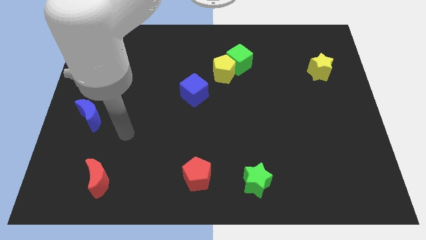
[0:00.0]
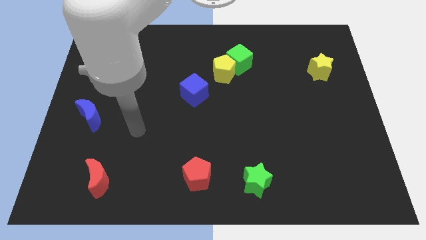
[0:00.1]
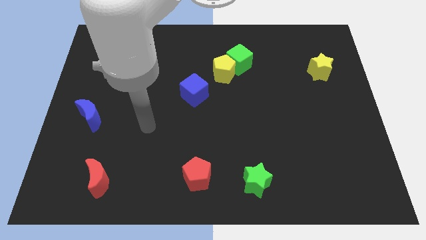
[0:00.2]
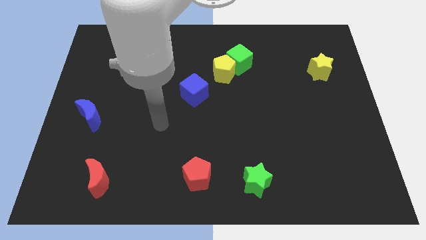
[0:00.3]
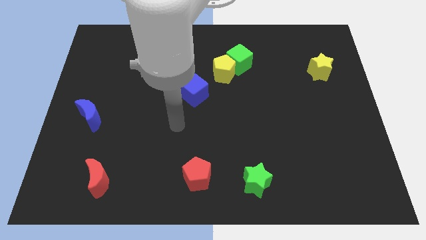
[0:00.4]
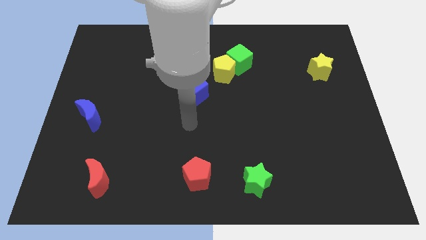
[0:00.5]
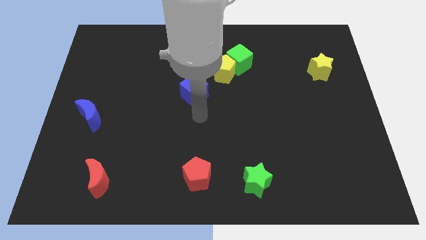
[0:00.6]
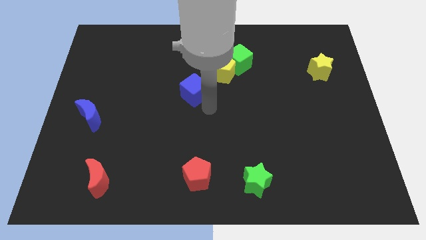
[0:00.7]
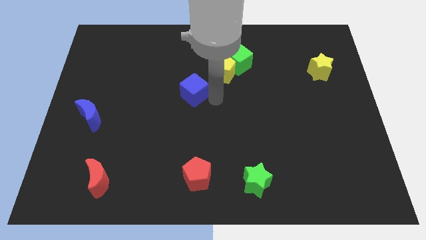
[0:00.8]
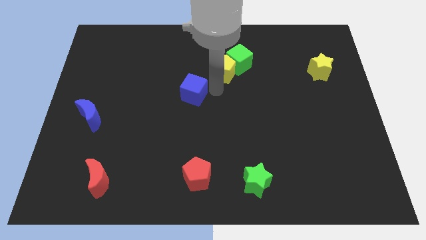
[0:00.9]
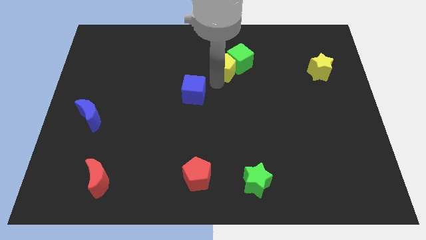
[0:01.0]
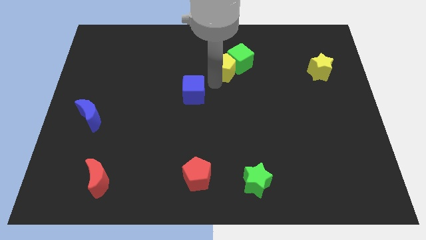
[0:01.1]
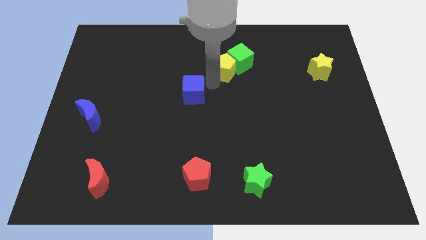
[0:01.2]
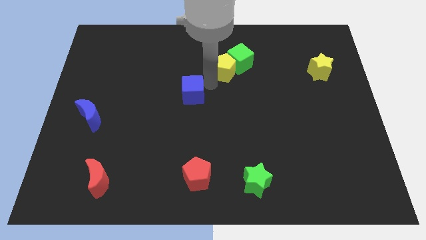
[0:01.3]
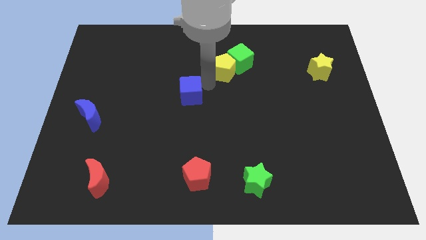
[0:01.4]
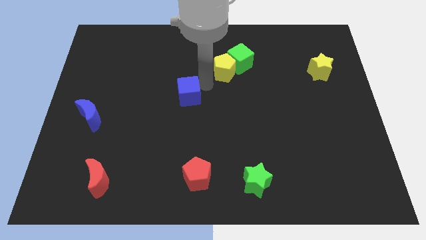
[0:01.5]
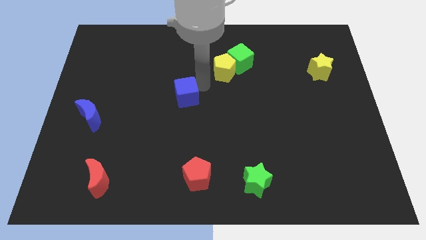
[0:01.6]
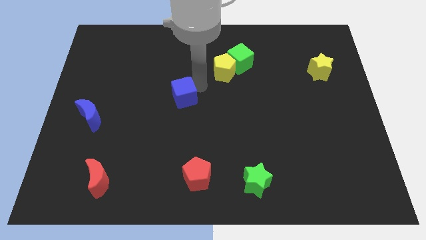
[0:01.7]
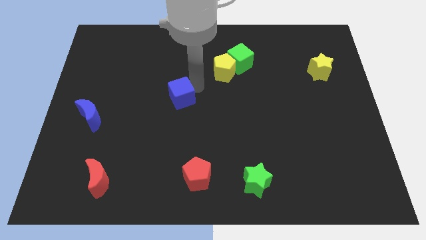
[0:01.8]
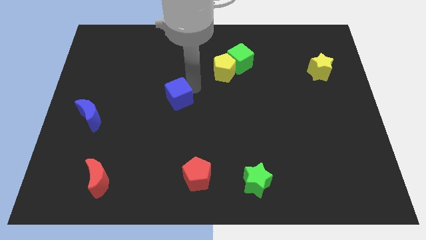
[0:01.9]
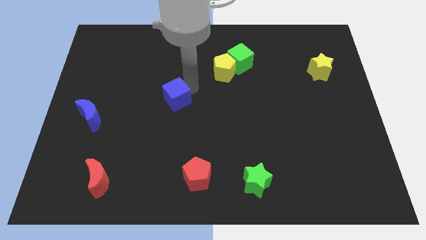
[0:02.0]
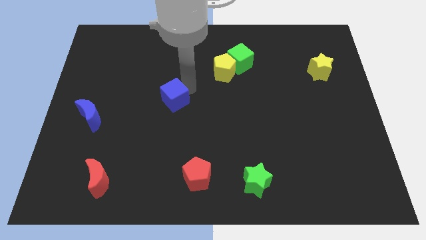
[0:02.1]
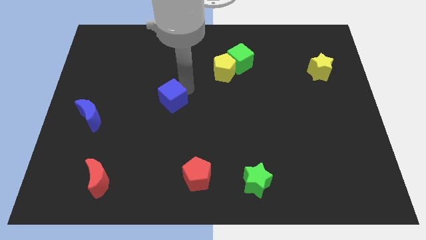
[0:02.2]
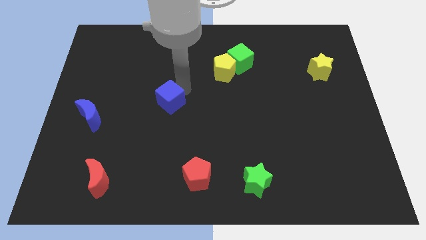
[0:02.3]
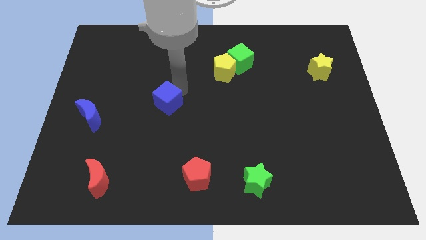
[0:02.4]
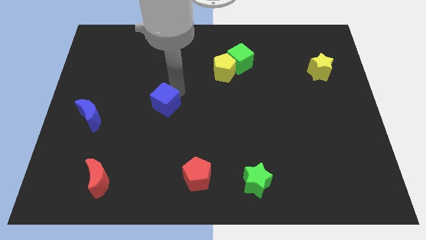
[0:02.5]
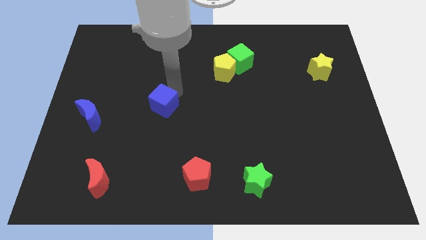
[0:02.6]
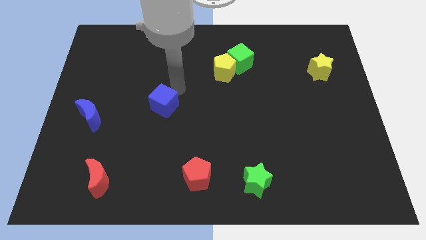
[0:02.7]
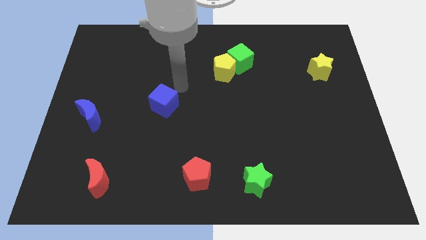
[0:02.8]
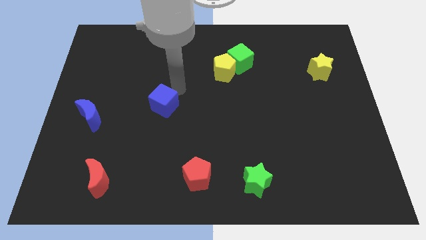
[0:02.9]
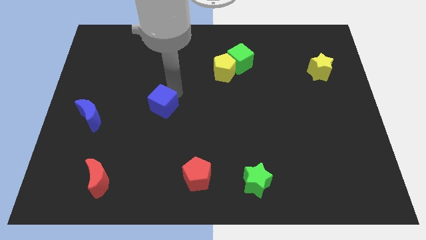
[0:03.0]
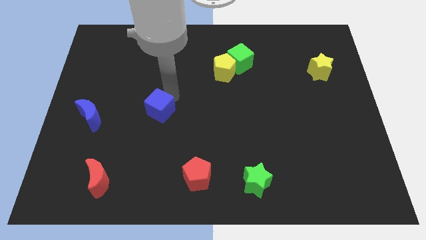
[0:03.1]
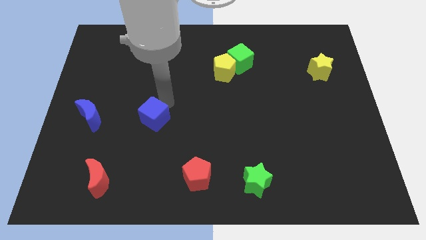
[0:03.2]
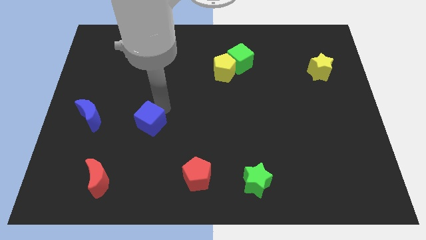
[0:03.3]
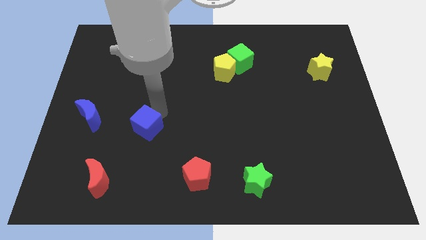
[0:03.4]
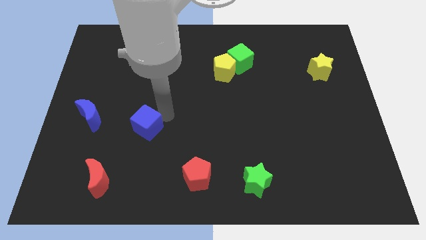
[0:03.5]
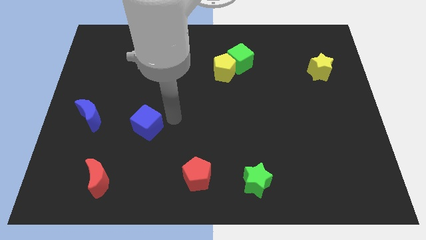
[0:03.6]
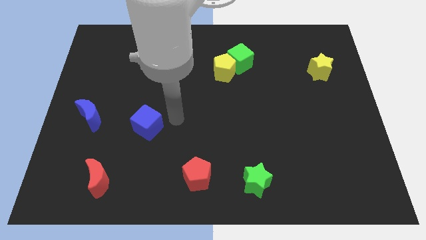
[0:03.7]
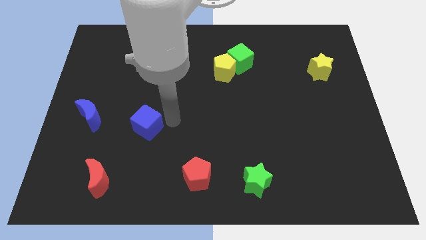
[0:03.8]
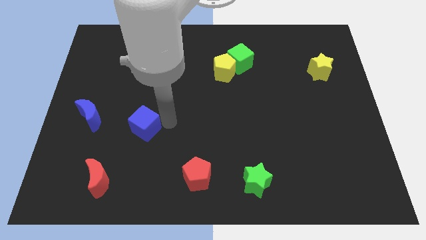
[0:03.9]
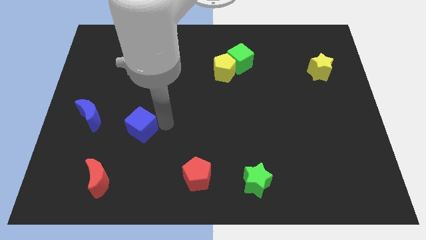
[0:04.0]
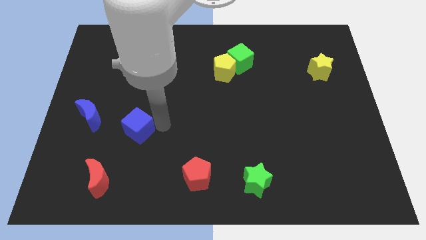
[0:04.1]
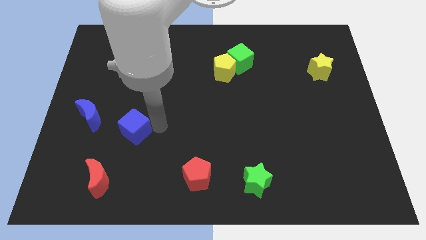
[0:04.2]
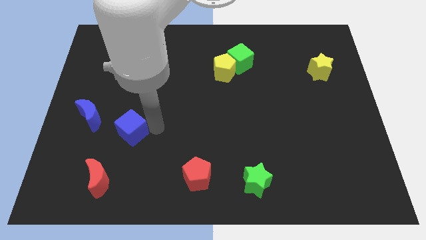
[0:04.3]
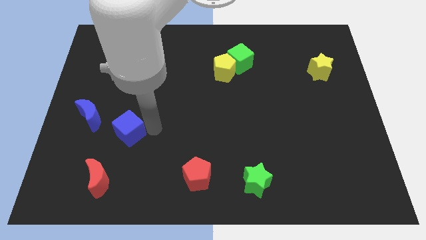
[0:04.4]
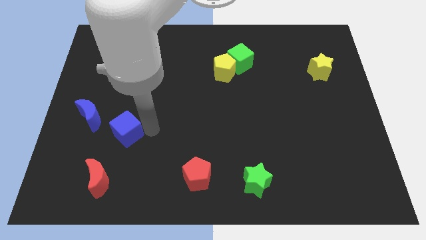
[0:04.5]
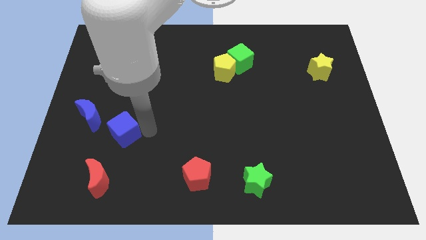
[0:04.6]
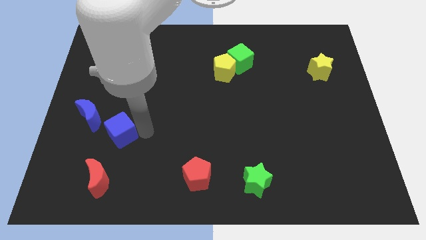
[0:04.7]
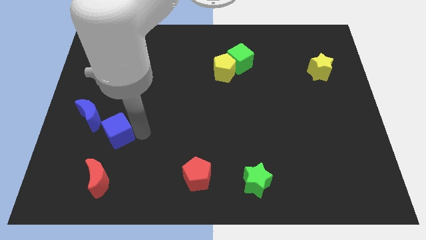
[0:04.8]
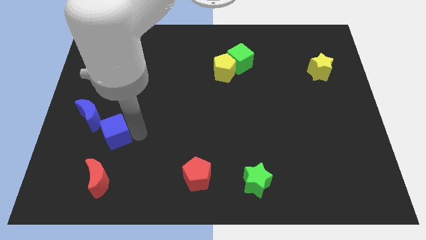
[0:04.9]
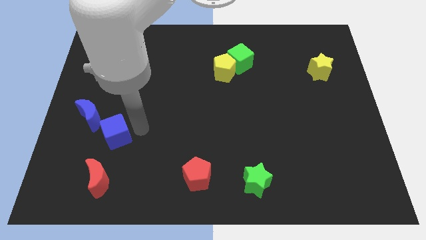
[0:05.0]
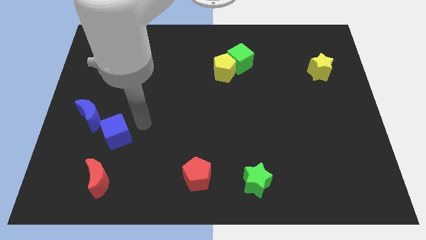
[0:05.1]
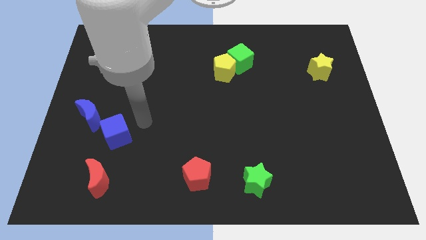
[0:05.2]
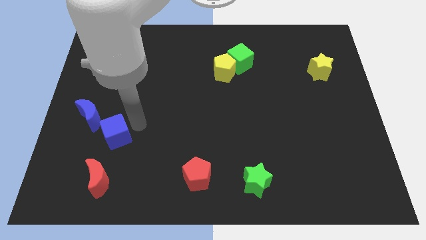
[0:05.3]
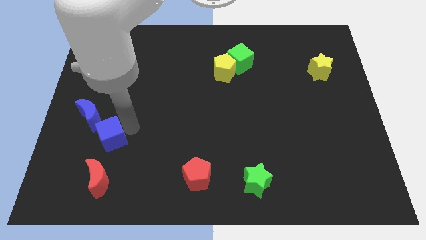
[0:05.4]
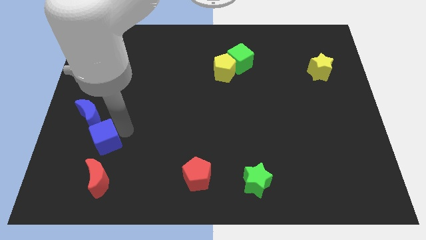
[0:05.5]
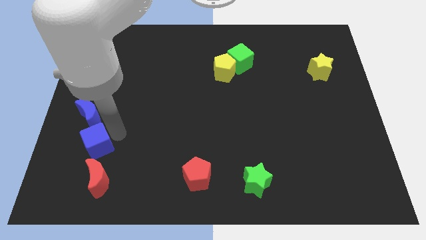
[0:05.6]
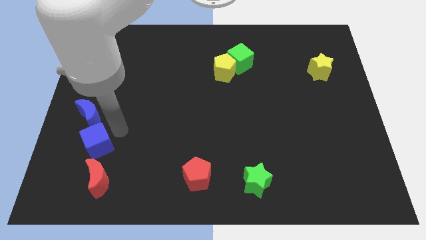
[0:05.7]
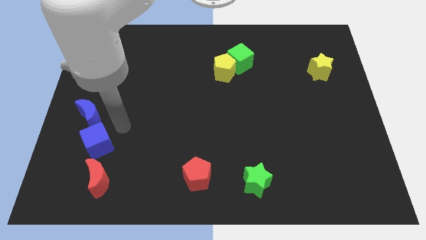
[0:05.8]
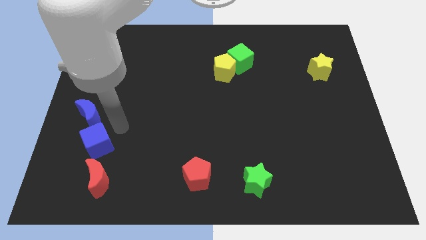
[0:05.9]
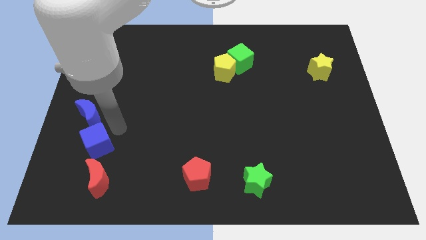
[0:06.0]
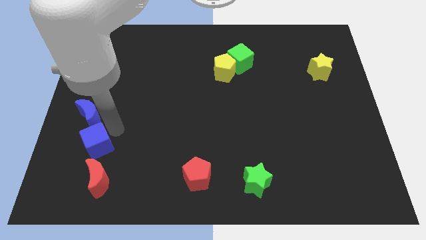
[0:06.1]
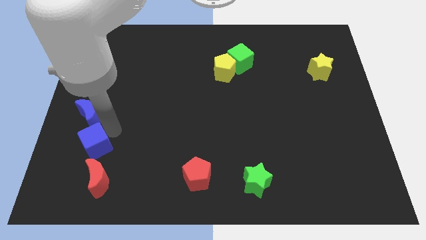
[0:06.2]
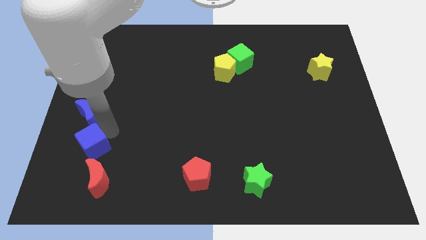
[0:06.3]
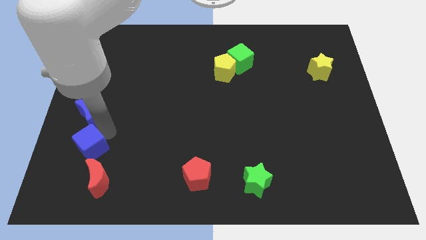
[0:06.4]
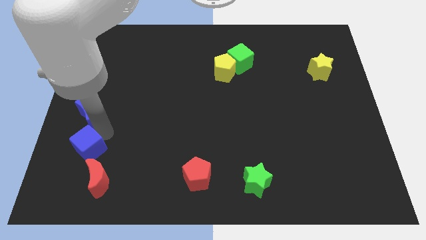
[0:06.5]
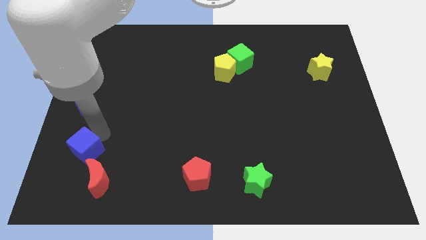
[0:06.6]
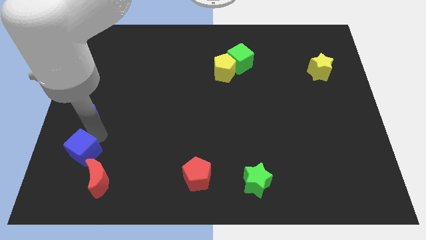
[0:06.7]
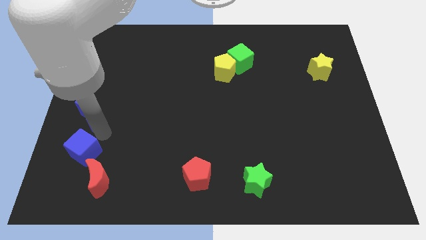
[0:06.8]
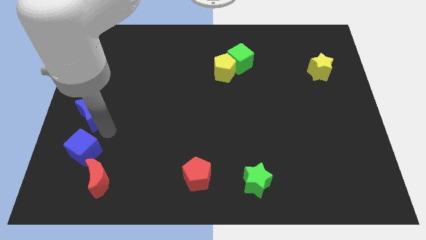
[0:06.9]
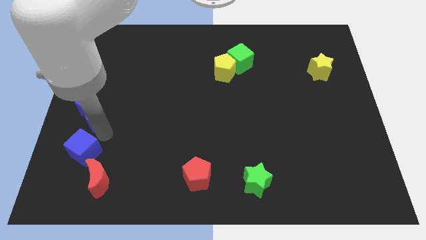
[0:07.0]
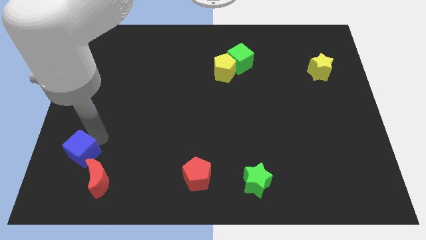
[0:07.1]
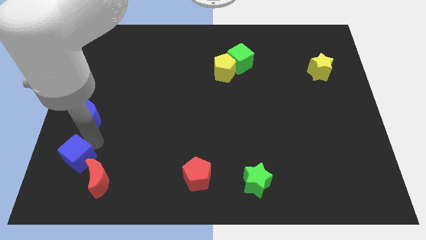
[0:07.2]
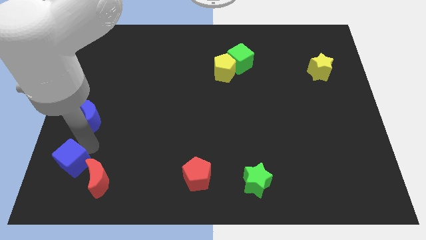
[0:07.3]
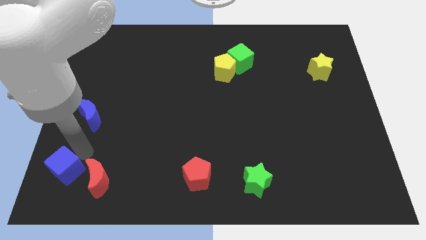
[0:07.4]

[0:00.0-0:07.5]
slide the blue cube to the bottom left corner
